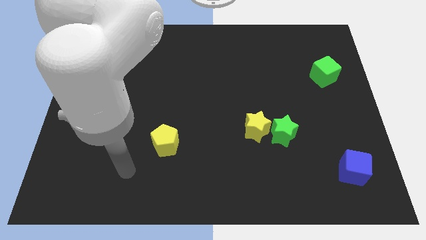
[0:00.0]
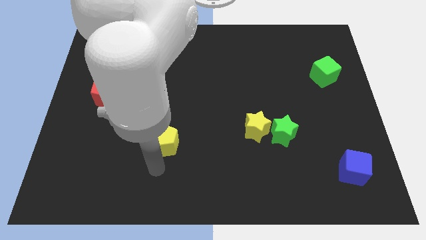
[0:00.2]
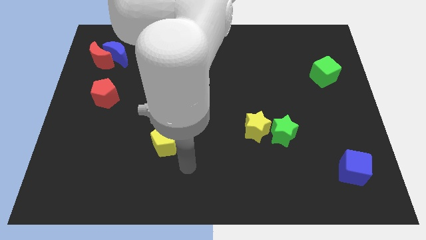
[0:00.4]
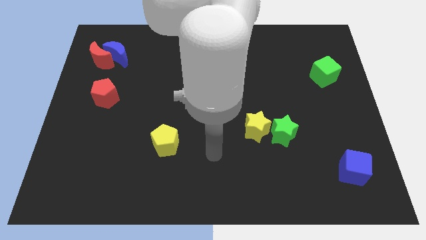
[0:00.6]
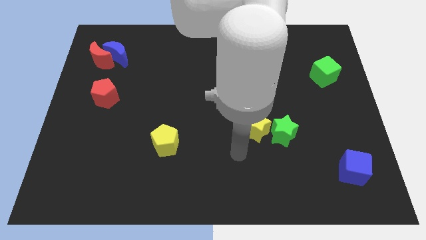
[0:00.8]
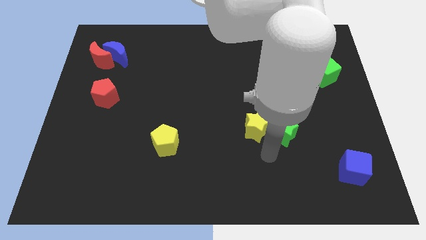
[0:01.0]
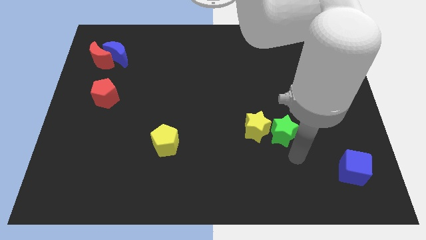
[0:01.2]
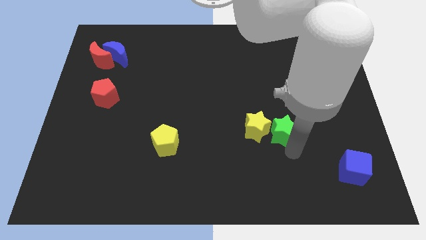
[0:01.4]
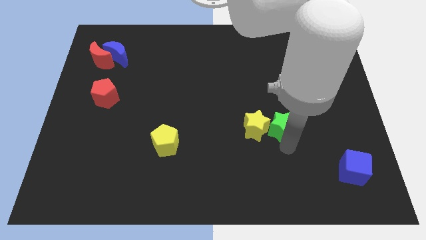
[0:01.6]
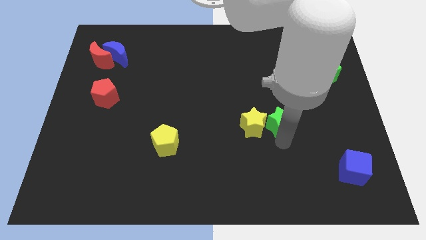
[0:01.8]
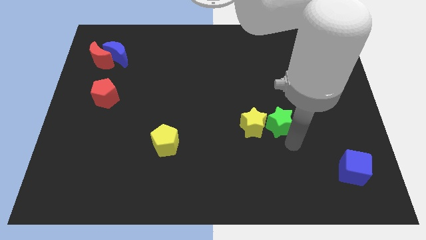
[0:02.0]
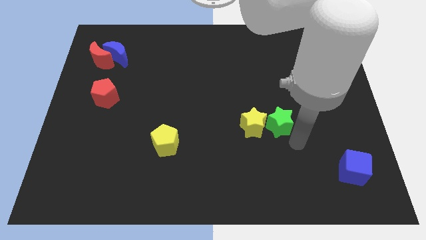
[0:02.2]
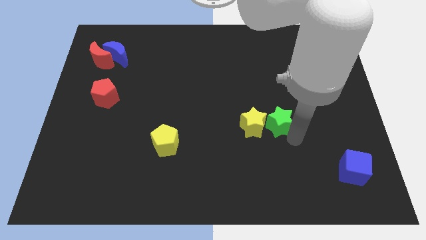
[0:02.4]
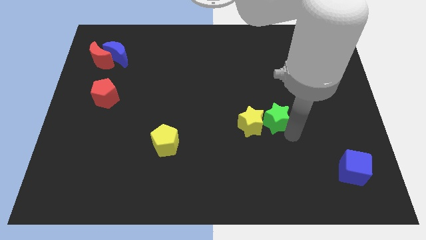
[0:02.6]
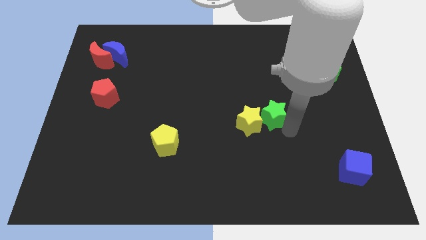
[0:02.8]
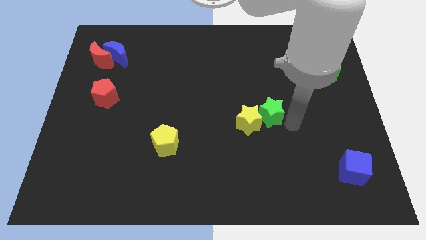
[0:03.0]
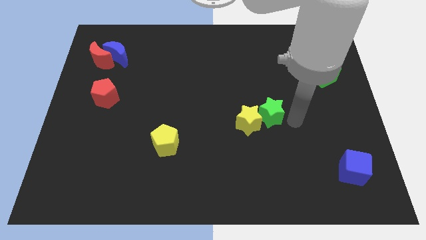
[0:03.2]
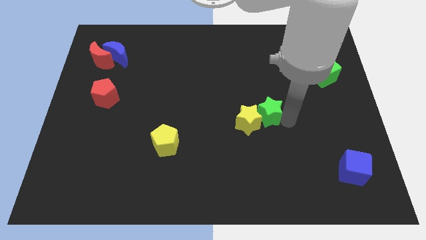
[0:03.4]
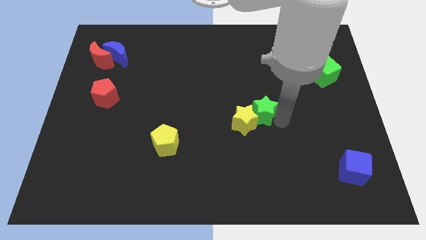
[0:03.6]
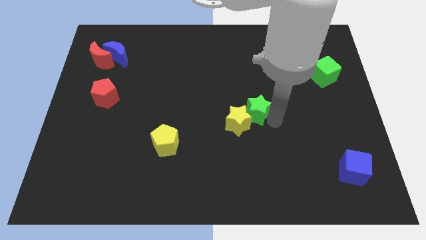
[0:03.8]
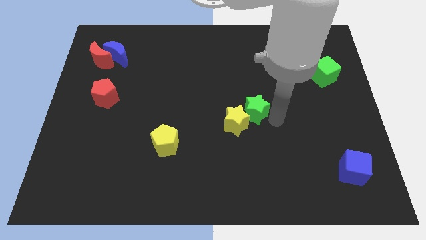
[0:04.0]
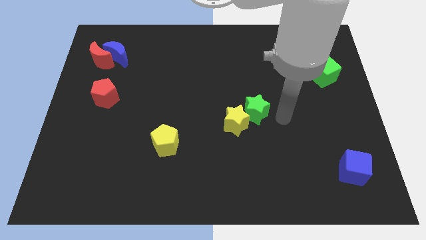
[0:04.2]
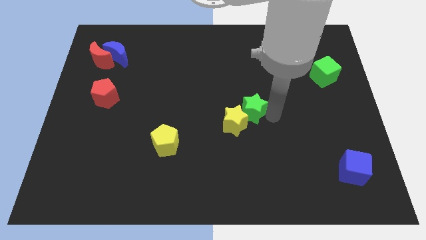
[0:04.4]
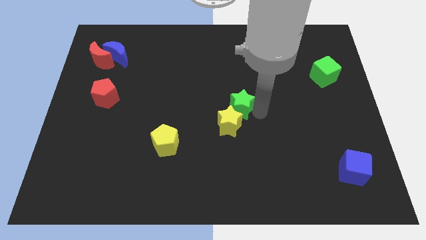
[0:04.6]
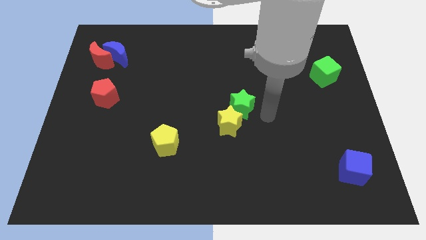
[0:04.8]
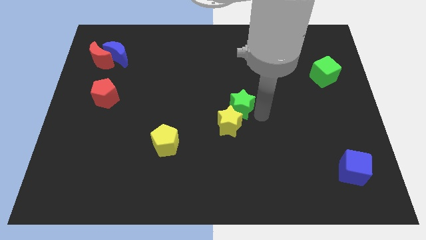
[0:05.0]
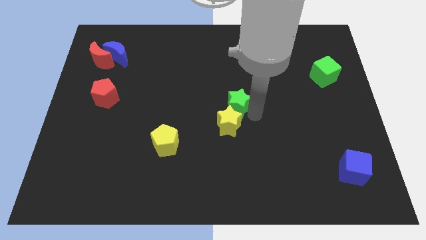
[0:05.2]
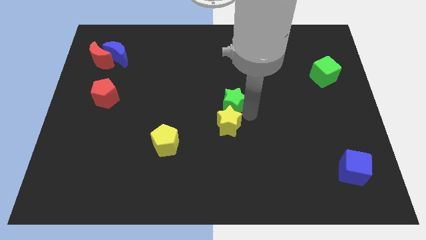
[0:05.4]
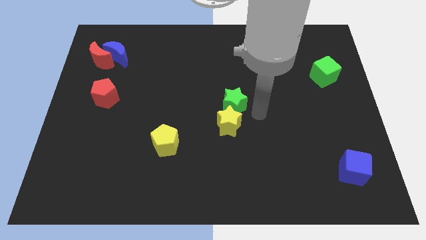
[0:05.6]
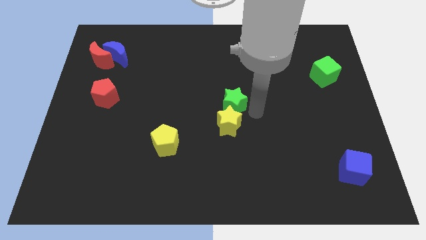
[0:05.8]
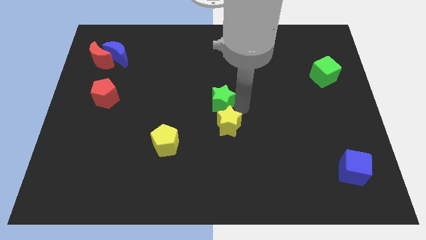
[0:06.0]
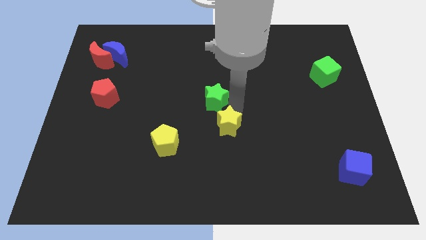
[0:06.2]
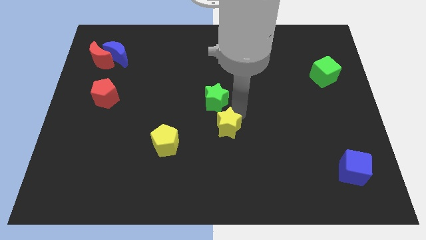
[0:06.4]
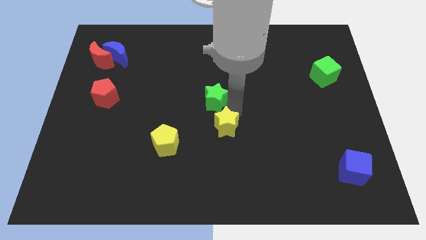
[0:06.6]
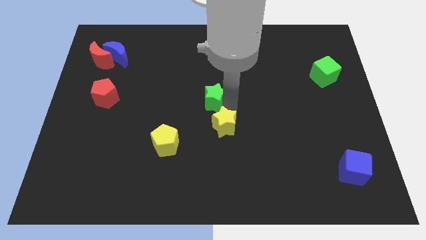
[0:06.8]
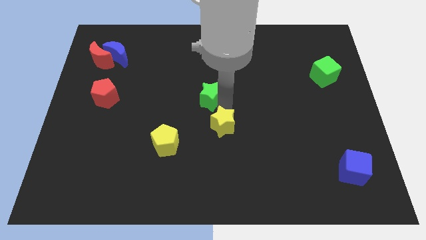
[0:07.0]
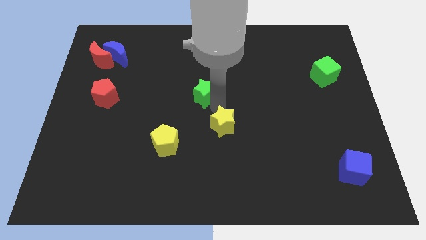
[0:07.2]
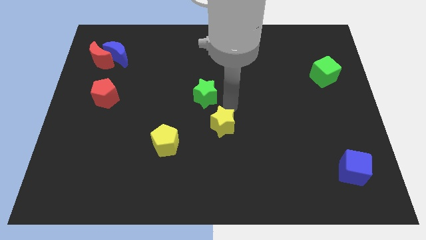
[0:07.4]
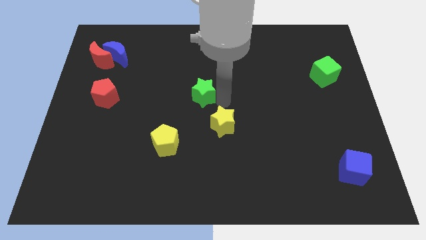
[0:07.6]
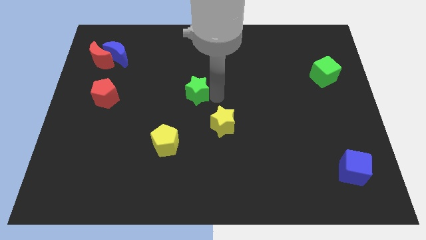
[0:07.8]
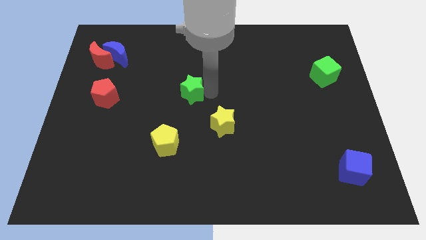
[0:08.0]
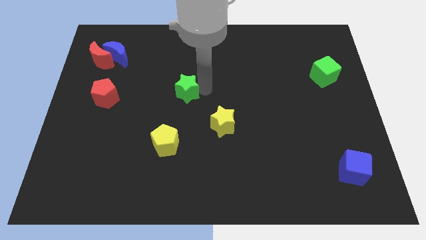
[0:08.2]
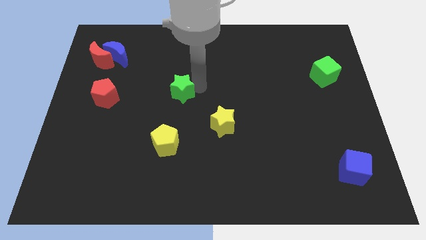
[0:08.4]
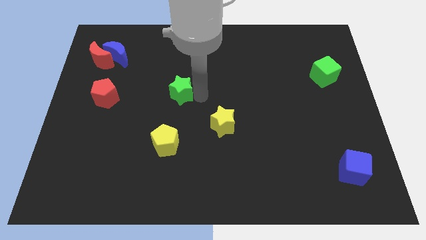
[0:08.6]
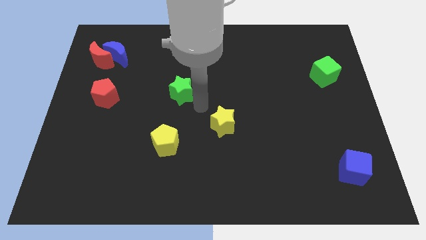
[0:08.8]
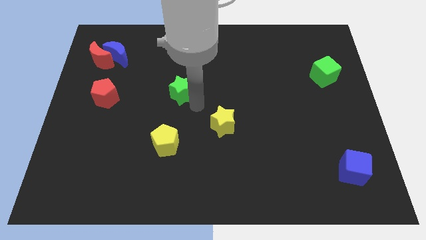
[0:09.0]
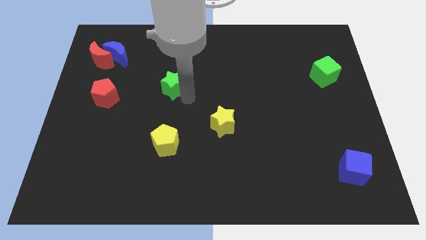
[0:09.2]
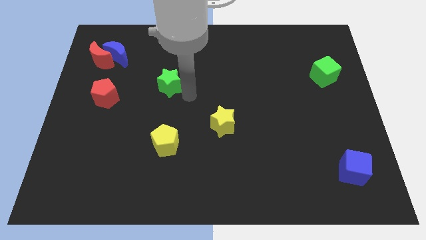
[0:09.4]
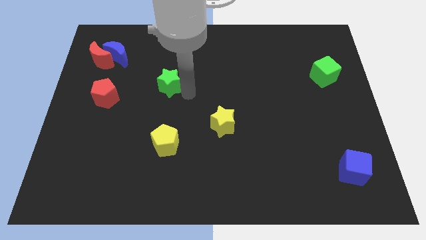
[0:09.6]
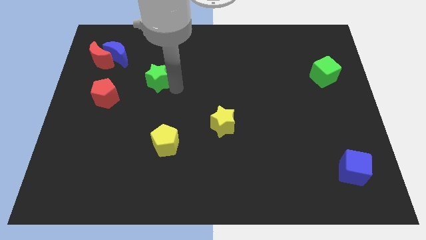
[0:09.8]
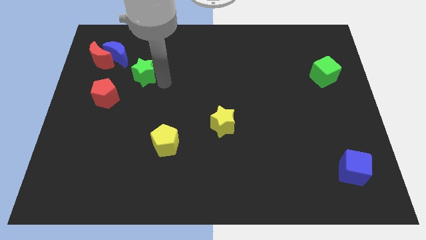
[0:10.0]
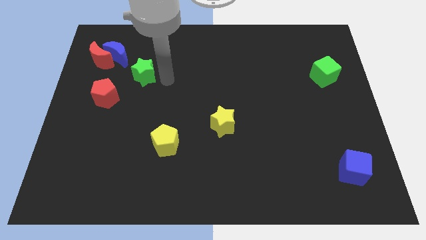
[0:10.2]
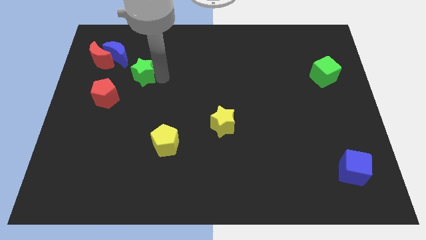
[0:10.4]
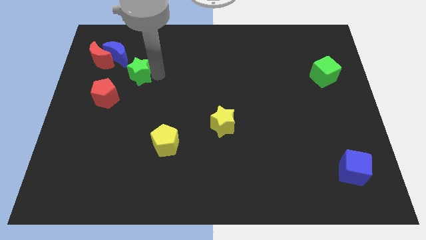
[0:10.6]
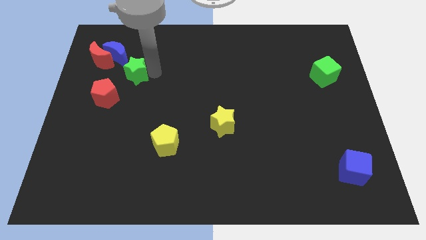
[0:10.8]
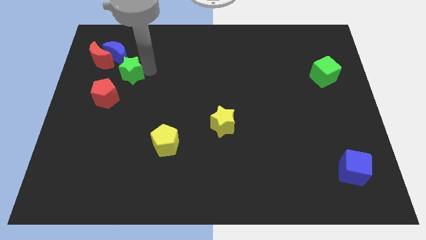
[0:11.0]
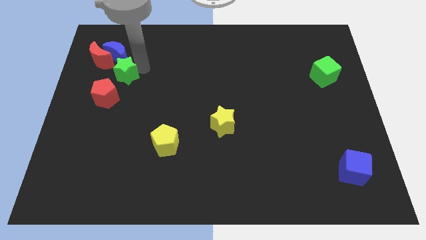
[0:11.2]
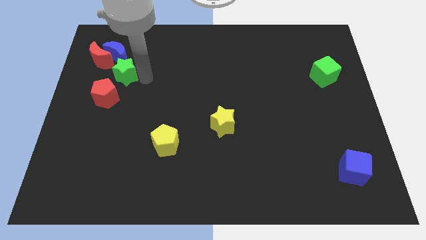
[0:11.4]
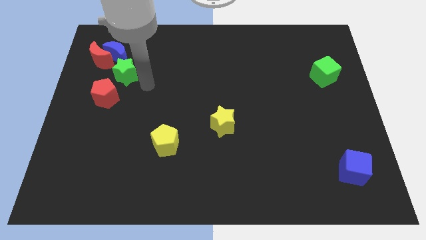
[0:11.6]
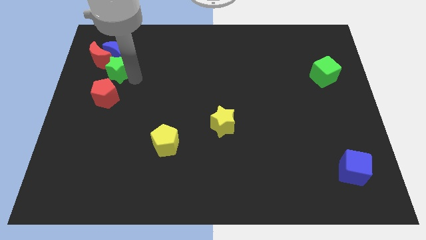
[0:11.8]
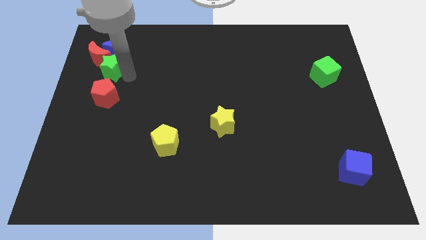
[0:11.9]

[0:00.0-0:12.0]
put the green star close to the red moon

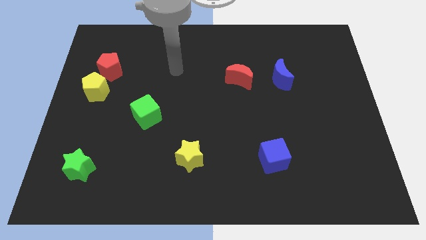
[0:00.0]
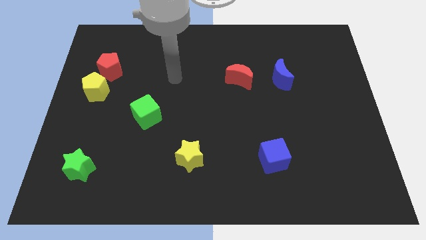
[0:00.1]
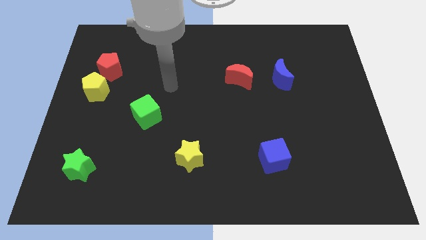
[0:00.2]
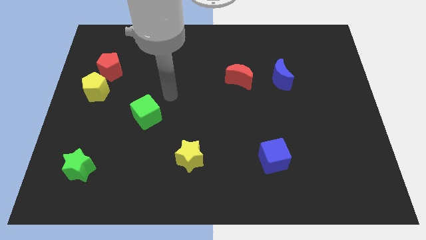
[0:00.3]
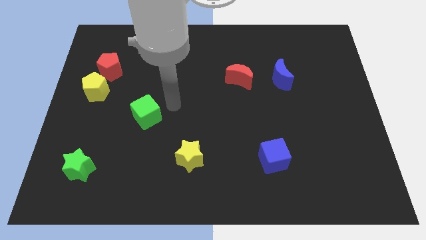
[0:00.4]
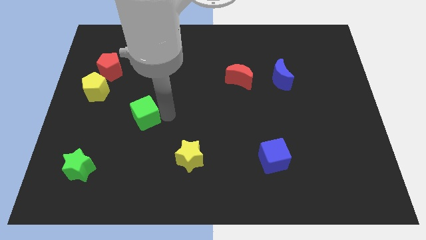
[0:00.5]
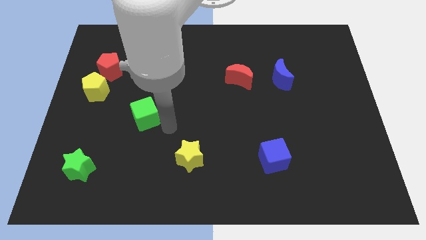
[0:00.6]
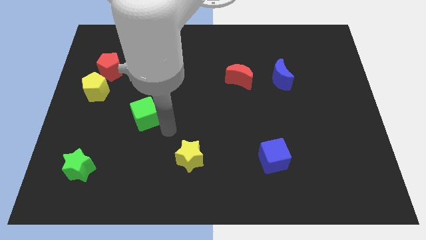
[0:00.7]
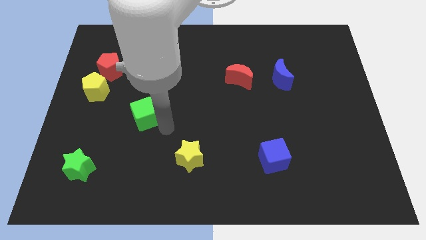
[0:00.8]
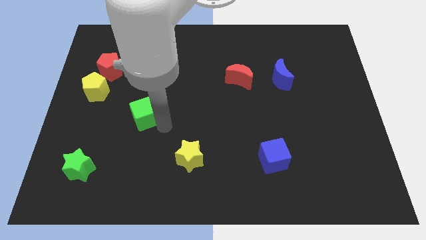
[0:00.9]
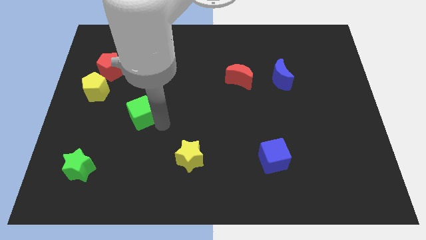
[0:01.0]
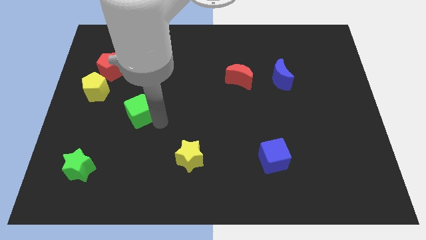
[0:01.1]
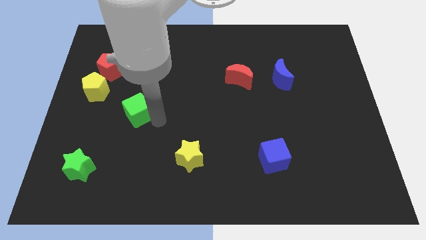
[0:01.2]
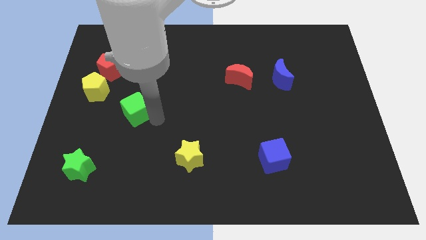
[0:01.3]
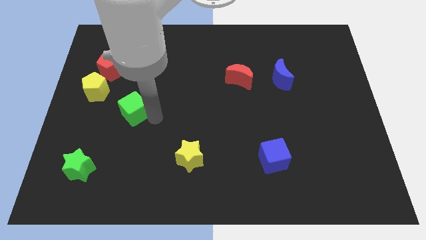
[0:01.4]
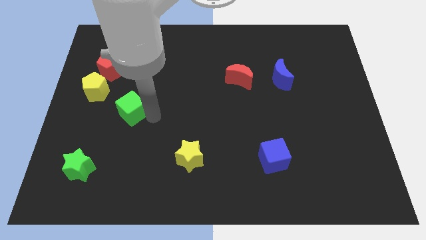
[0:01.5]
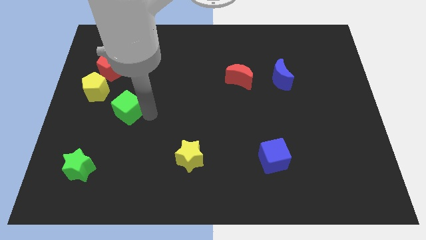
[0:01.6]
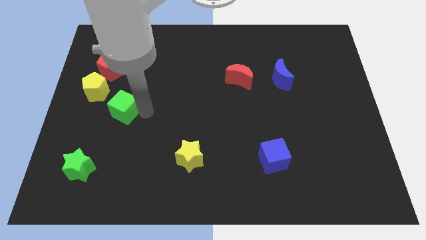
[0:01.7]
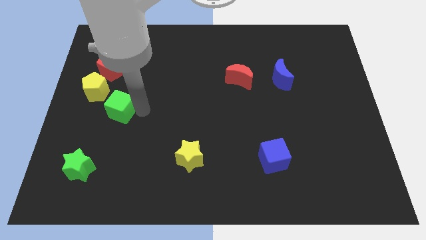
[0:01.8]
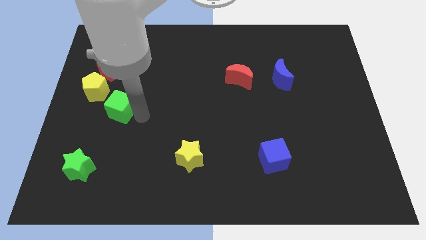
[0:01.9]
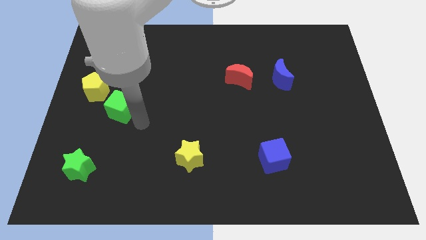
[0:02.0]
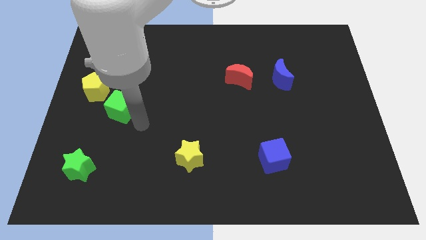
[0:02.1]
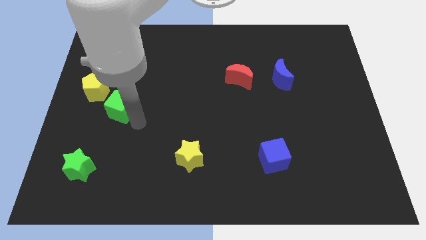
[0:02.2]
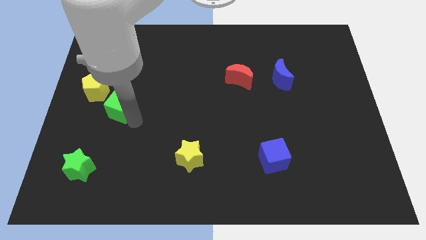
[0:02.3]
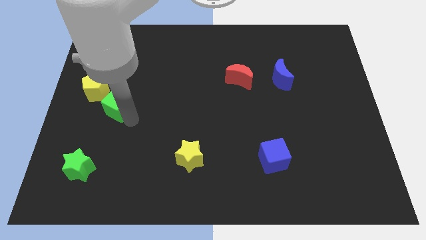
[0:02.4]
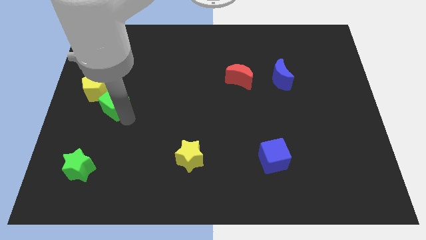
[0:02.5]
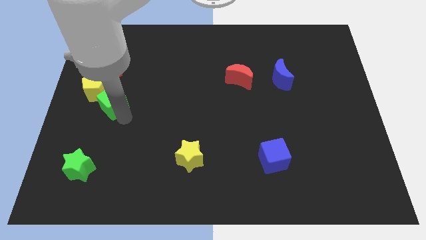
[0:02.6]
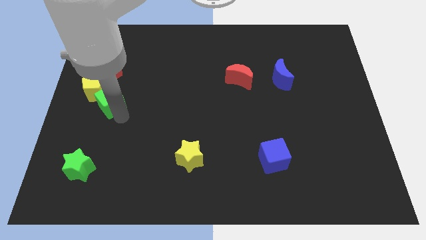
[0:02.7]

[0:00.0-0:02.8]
push the green cube towards the yellow pentagon
